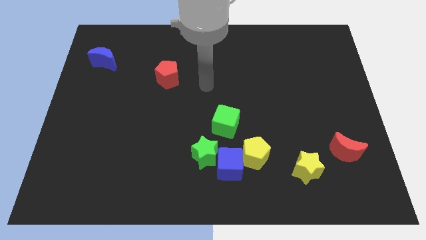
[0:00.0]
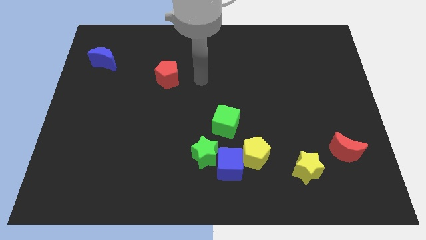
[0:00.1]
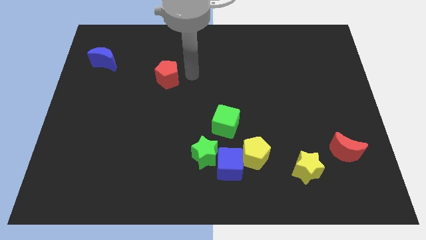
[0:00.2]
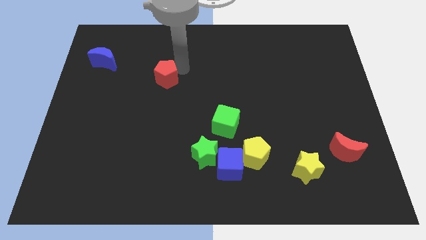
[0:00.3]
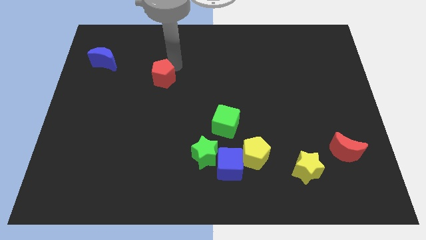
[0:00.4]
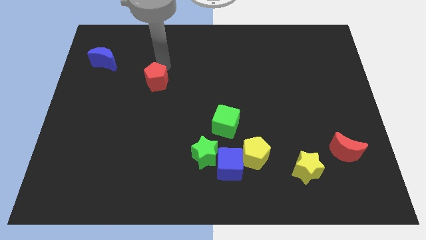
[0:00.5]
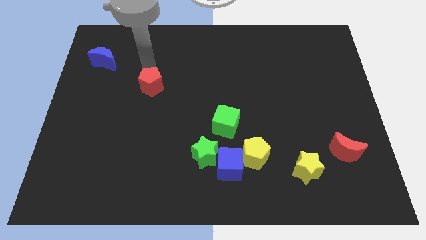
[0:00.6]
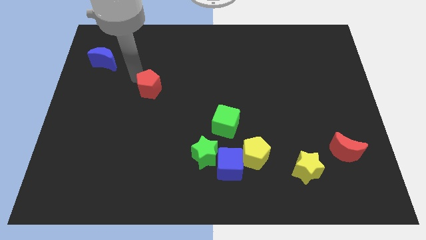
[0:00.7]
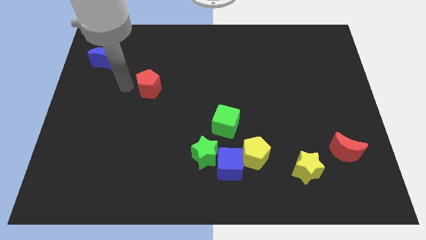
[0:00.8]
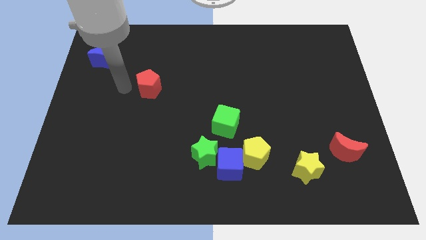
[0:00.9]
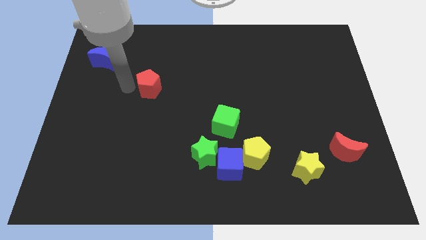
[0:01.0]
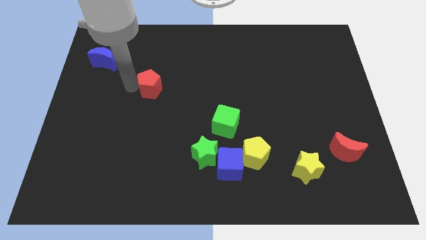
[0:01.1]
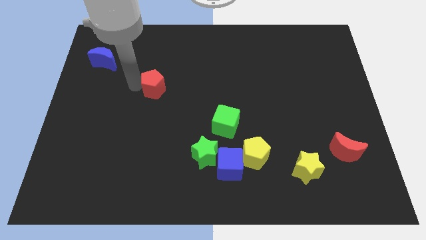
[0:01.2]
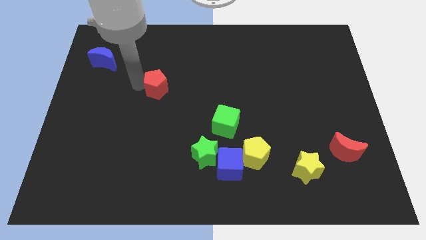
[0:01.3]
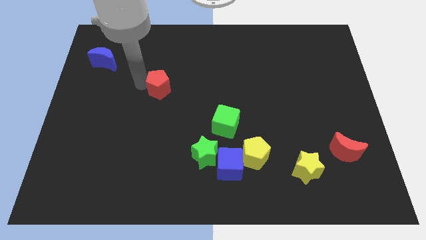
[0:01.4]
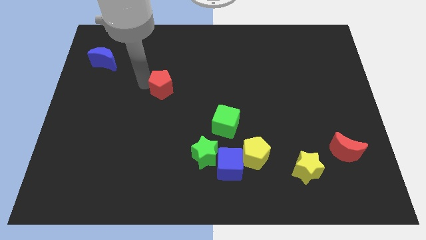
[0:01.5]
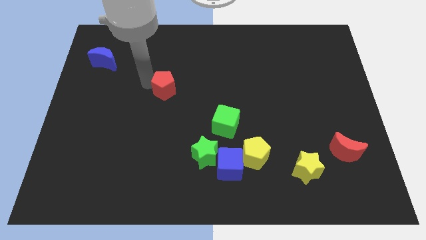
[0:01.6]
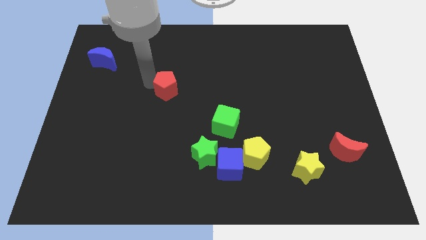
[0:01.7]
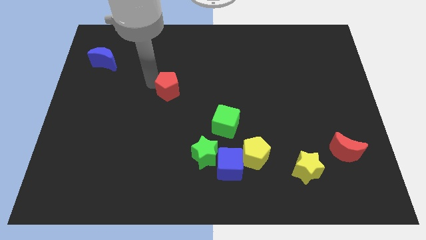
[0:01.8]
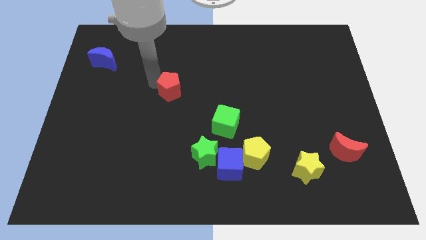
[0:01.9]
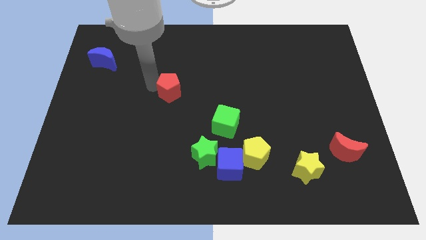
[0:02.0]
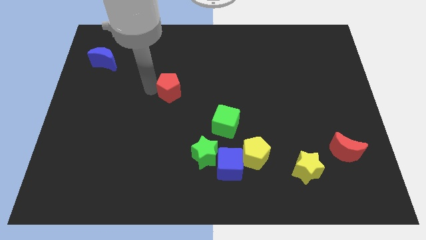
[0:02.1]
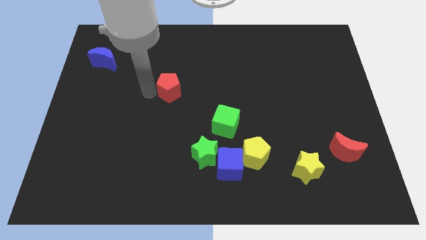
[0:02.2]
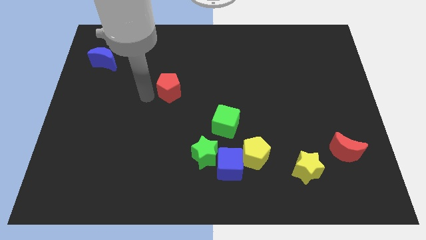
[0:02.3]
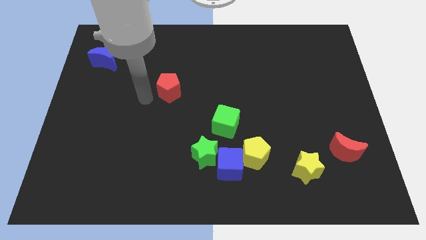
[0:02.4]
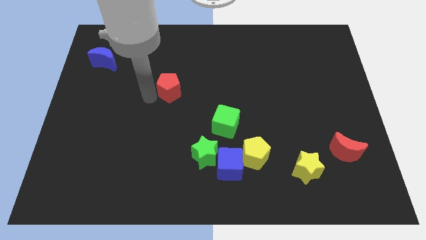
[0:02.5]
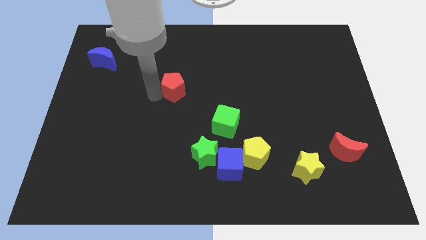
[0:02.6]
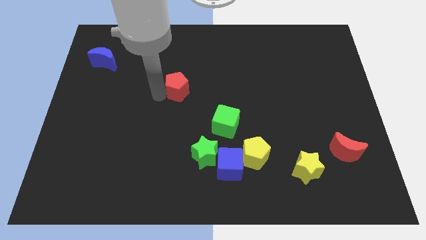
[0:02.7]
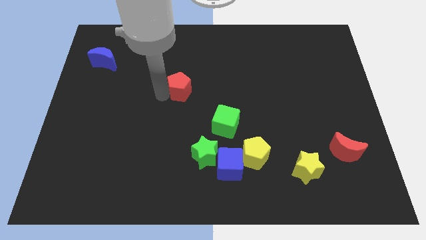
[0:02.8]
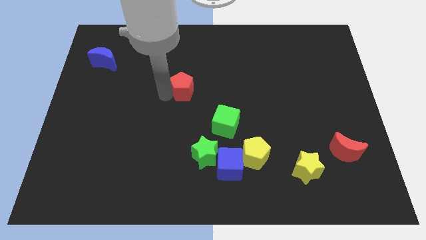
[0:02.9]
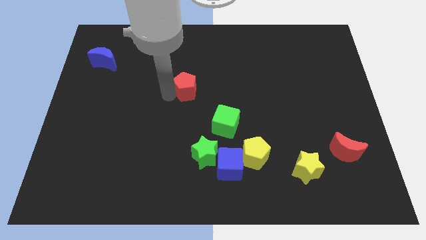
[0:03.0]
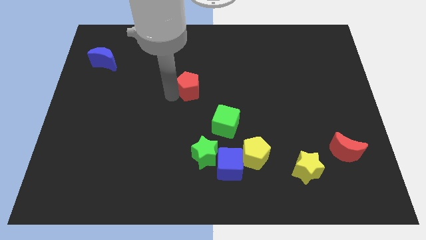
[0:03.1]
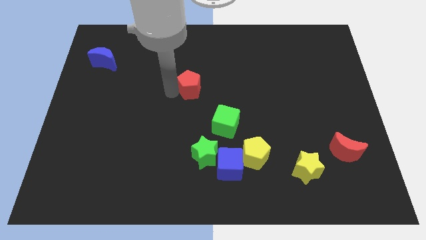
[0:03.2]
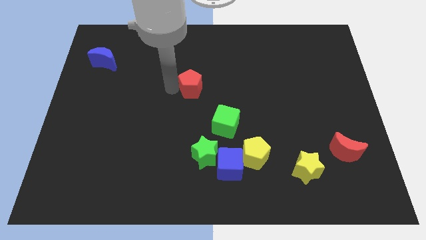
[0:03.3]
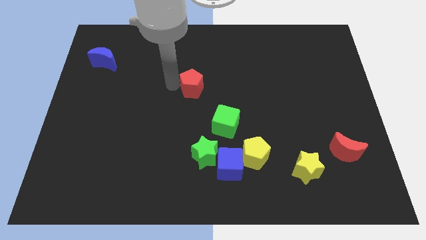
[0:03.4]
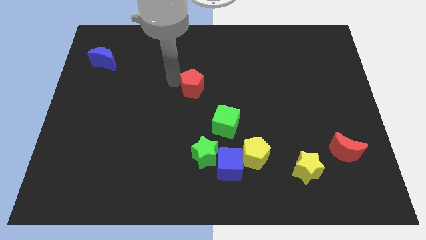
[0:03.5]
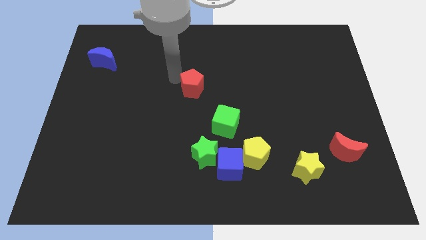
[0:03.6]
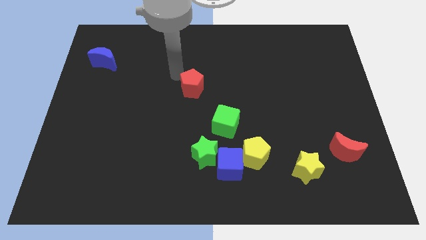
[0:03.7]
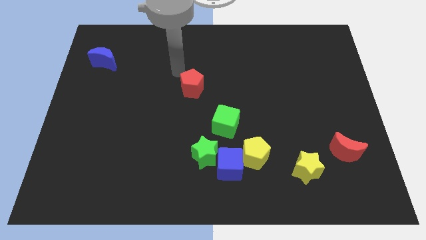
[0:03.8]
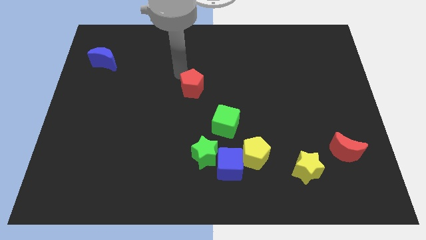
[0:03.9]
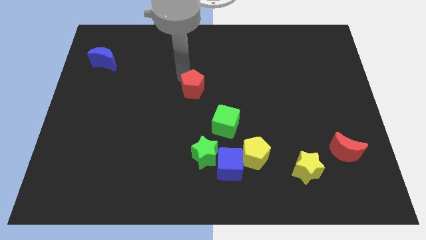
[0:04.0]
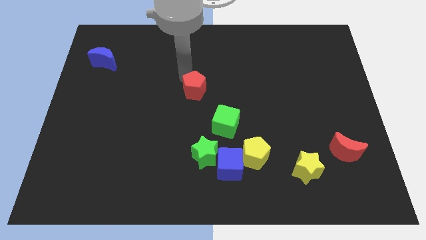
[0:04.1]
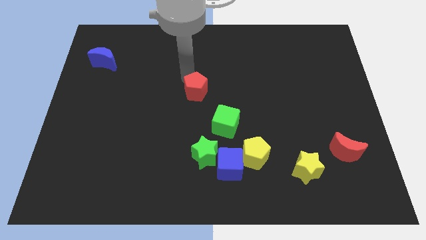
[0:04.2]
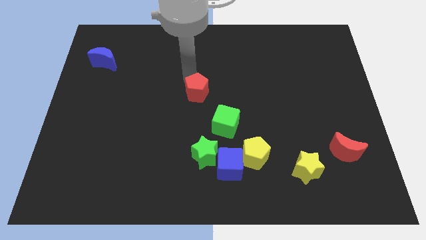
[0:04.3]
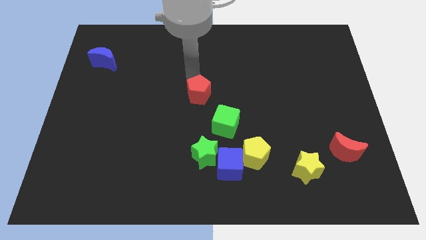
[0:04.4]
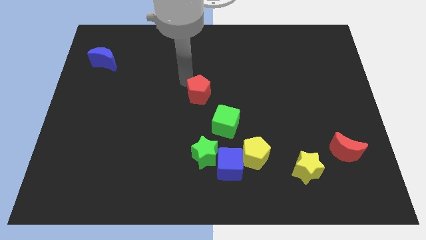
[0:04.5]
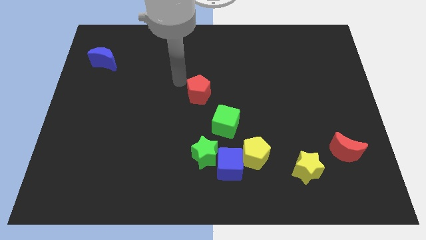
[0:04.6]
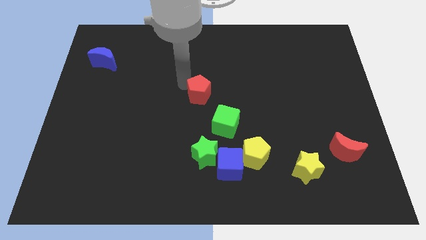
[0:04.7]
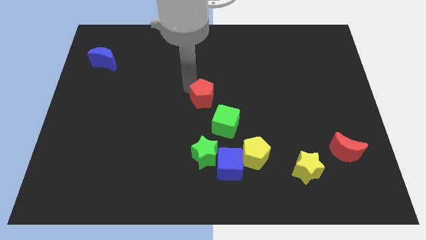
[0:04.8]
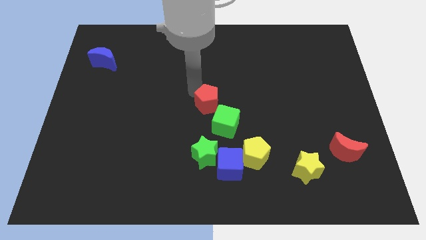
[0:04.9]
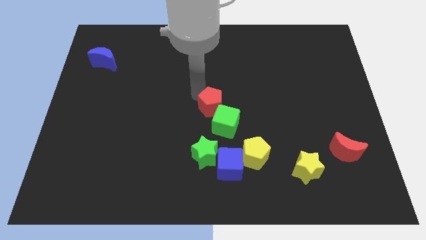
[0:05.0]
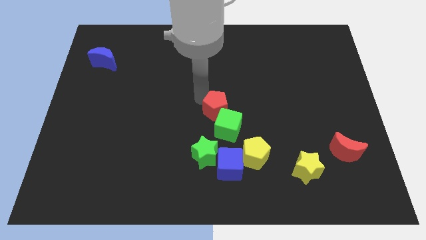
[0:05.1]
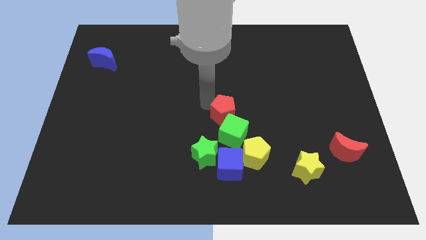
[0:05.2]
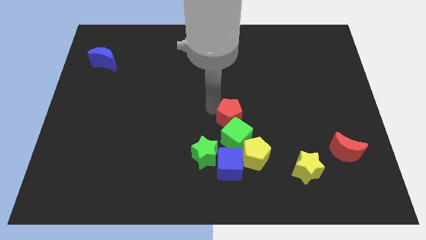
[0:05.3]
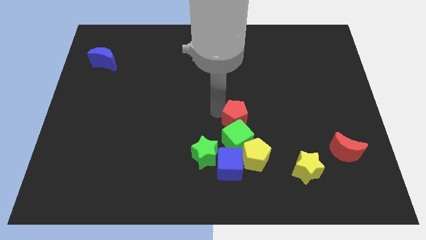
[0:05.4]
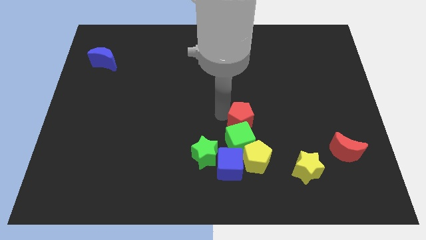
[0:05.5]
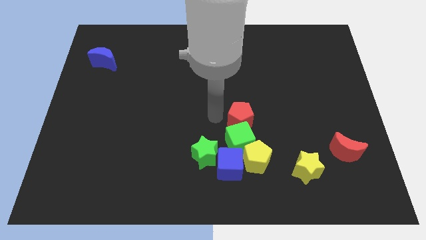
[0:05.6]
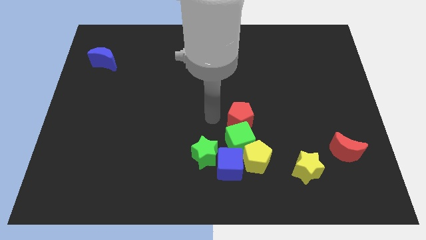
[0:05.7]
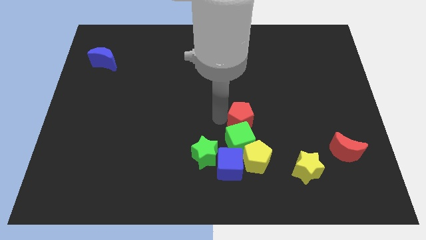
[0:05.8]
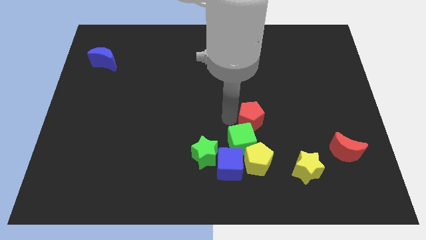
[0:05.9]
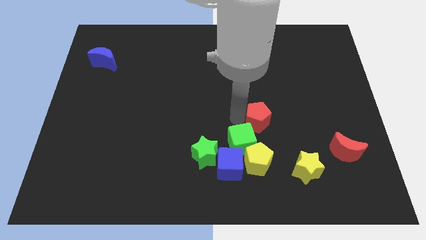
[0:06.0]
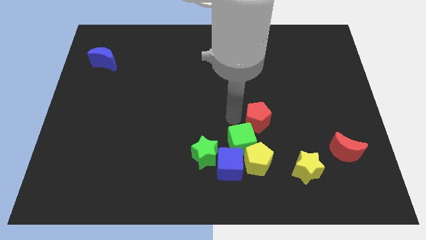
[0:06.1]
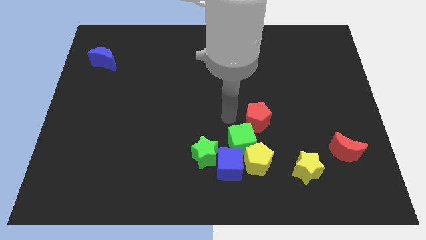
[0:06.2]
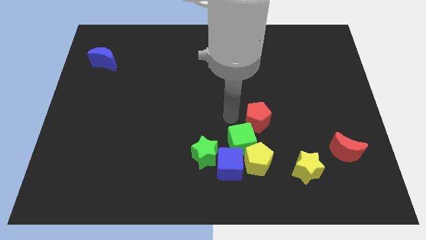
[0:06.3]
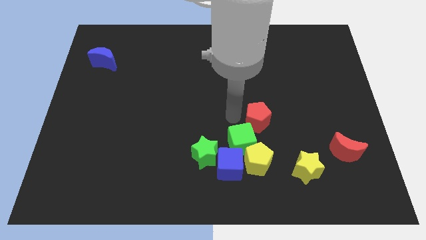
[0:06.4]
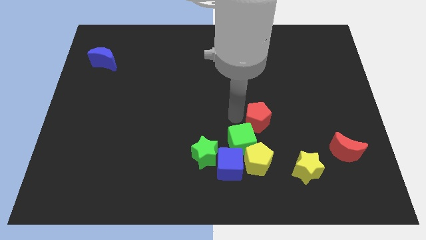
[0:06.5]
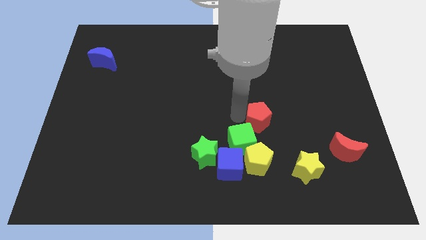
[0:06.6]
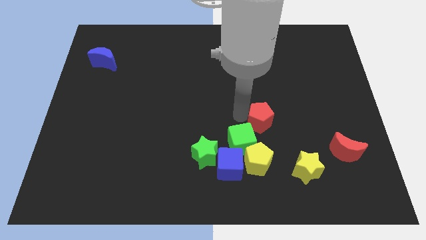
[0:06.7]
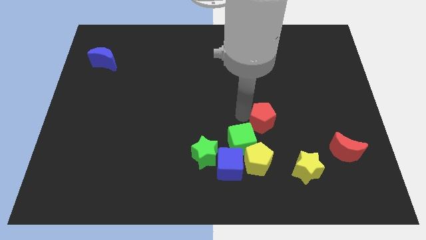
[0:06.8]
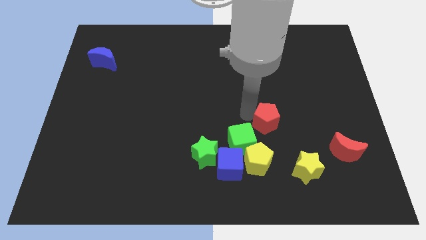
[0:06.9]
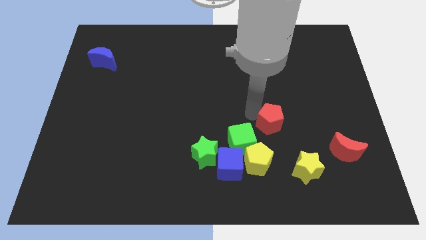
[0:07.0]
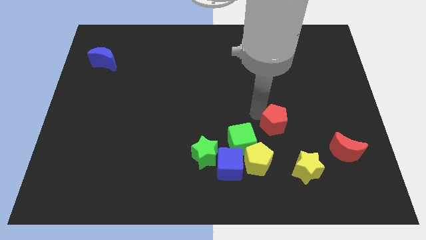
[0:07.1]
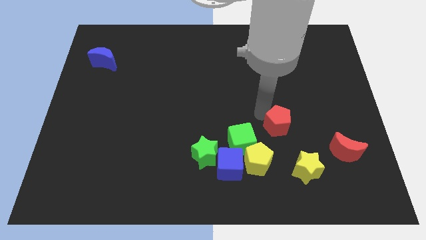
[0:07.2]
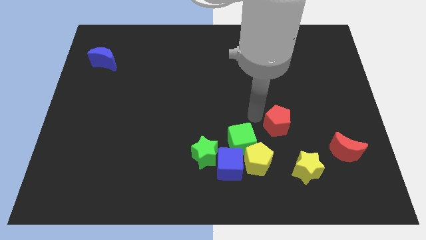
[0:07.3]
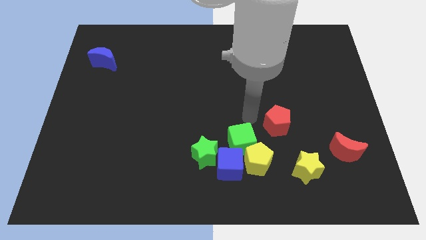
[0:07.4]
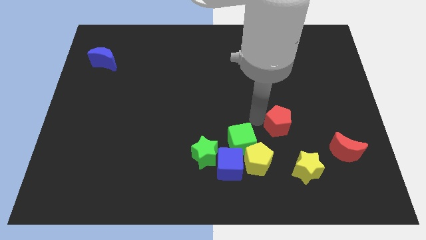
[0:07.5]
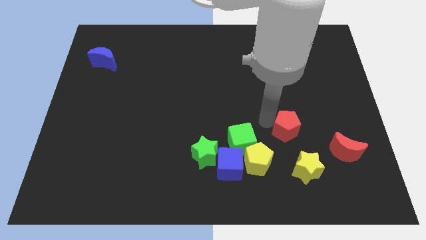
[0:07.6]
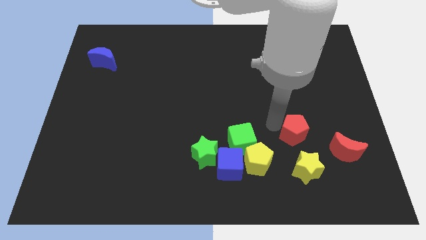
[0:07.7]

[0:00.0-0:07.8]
put the red pentagon to the top left of the red moon
